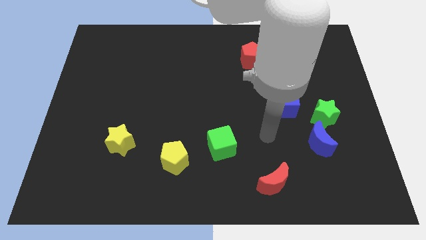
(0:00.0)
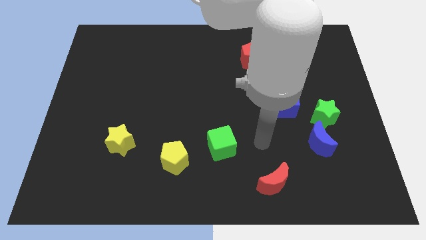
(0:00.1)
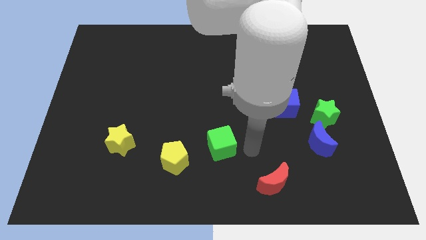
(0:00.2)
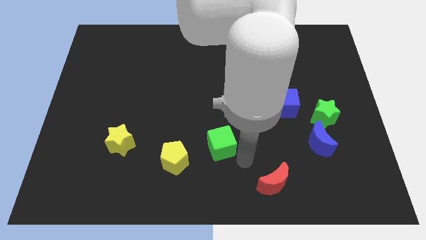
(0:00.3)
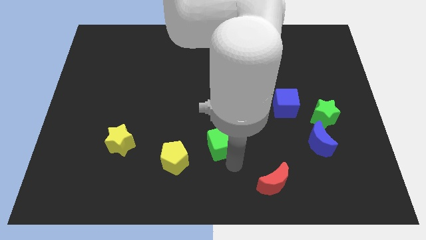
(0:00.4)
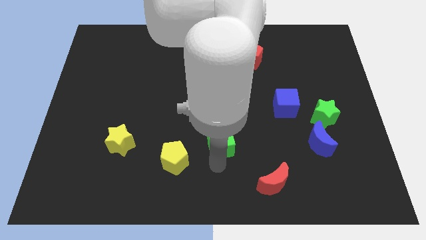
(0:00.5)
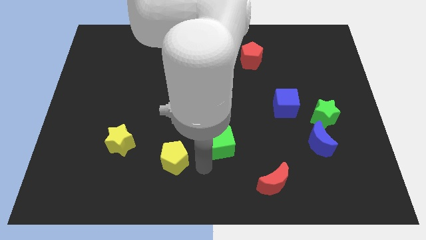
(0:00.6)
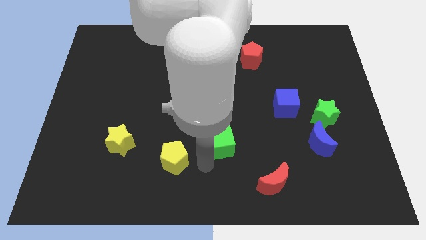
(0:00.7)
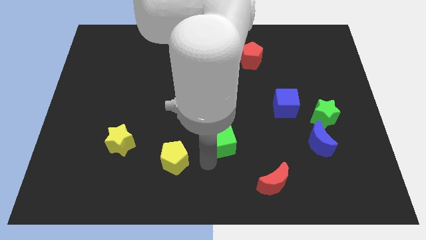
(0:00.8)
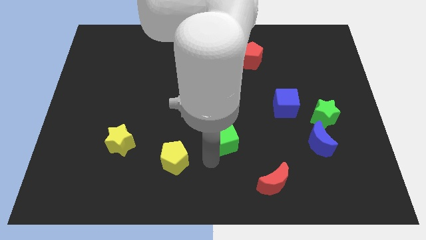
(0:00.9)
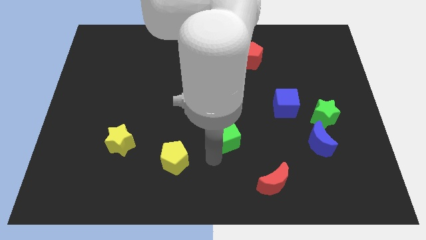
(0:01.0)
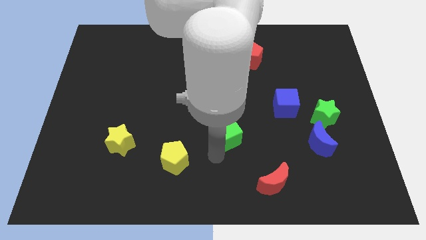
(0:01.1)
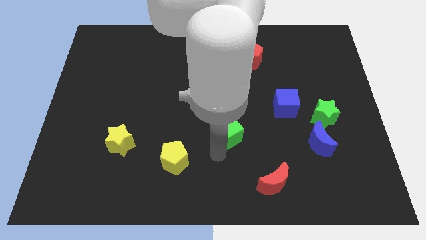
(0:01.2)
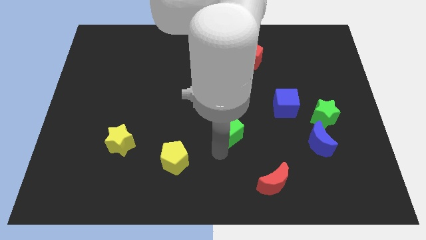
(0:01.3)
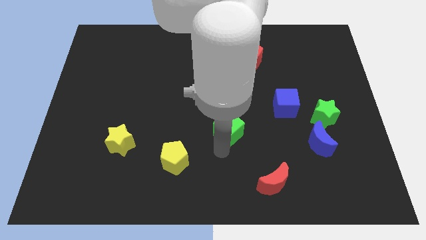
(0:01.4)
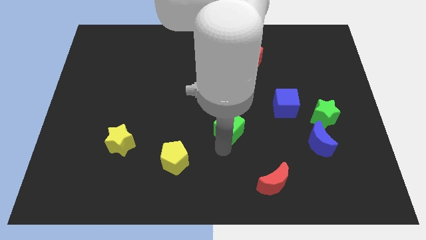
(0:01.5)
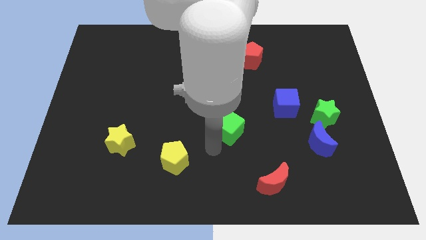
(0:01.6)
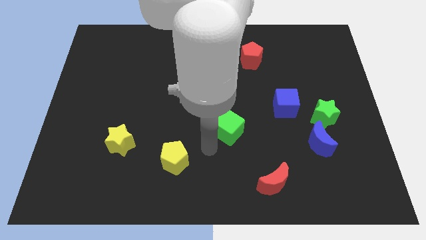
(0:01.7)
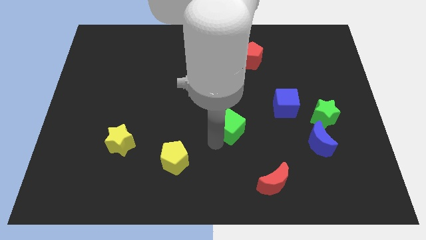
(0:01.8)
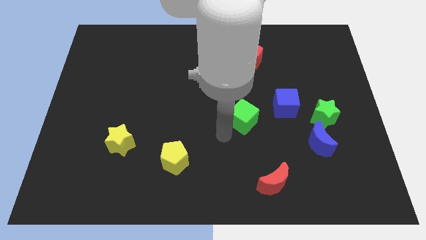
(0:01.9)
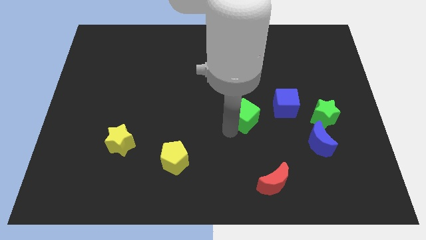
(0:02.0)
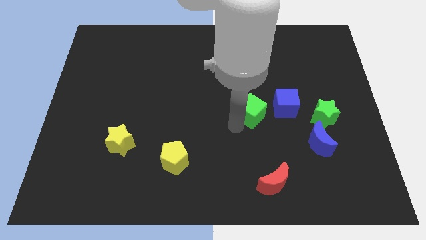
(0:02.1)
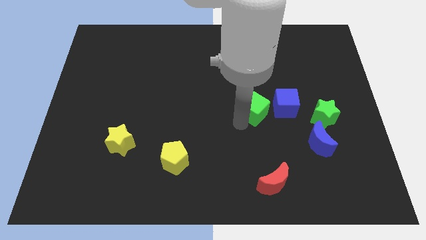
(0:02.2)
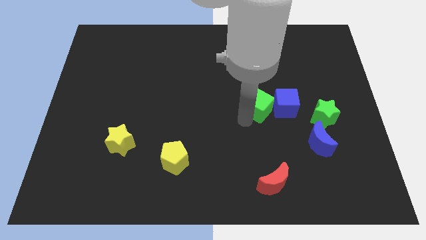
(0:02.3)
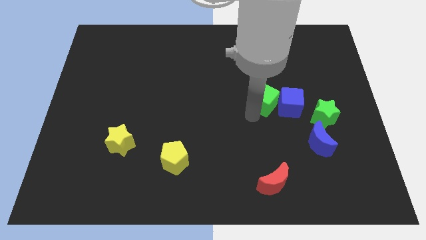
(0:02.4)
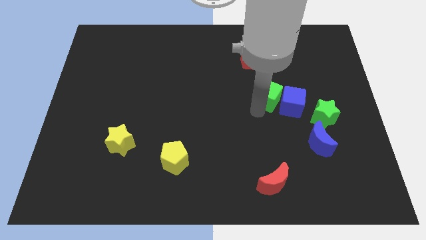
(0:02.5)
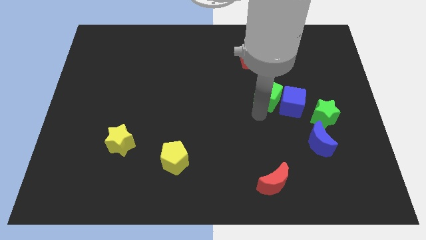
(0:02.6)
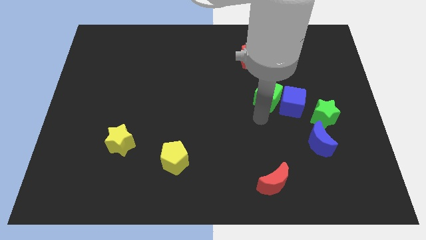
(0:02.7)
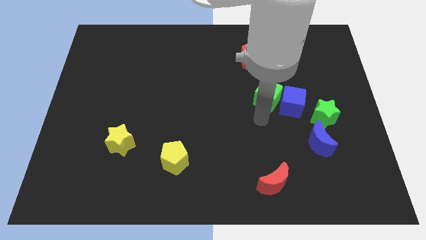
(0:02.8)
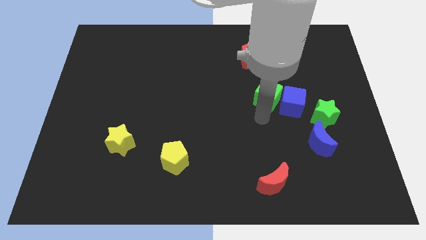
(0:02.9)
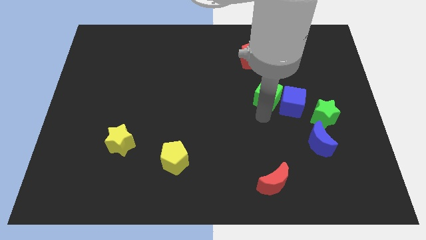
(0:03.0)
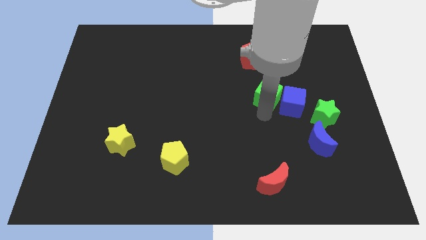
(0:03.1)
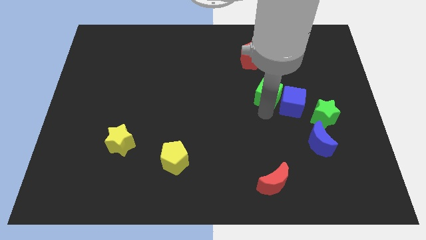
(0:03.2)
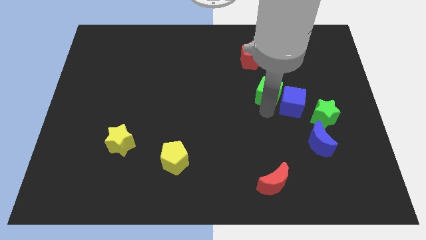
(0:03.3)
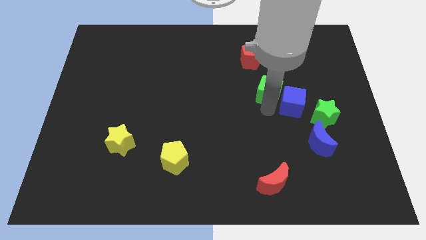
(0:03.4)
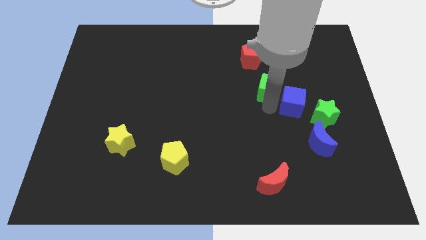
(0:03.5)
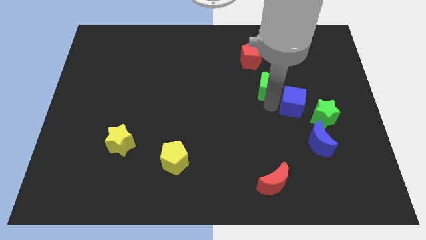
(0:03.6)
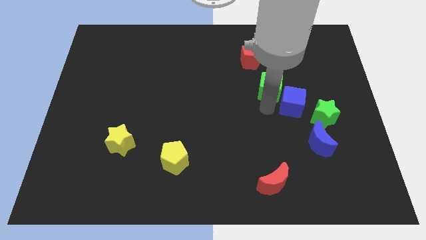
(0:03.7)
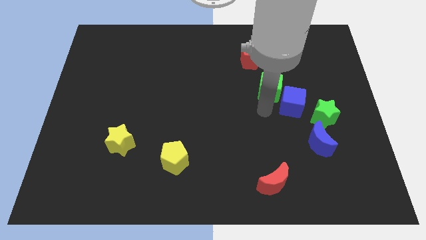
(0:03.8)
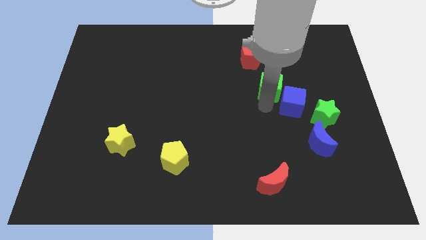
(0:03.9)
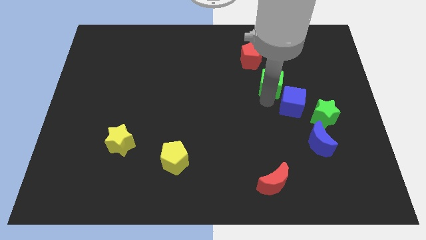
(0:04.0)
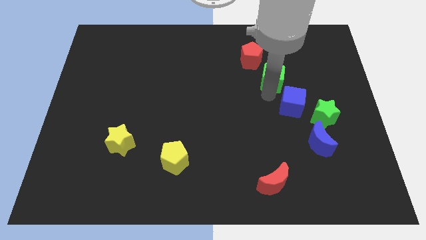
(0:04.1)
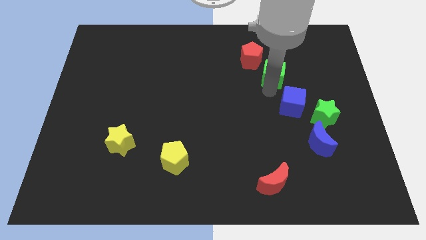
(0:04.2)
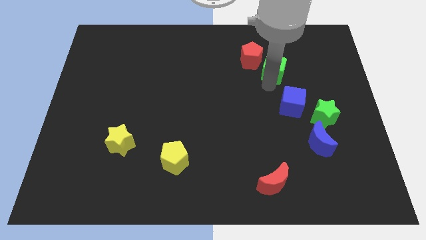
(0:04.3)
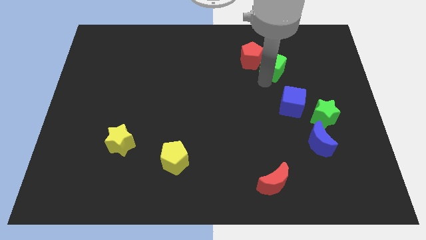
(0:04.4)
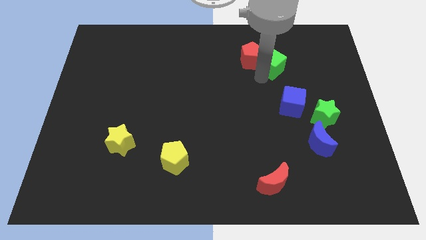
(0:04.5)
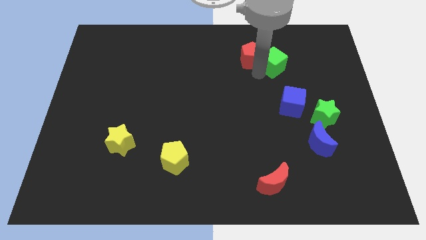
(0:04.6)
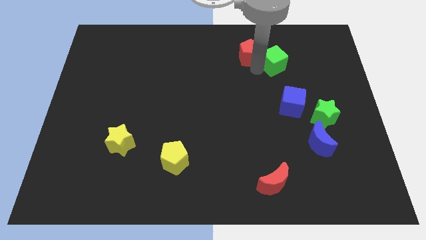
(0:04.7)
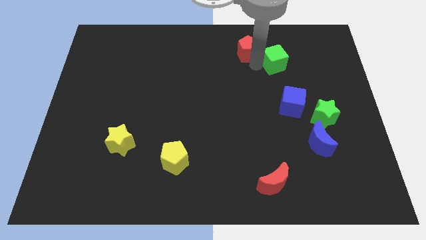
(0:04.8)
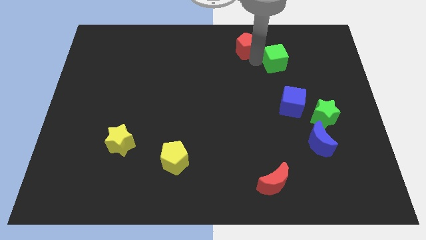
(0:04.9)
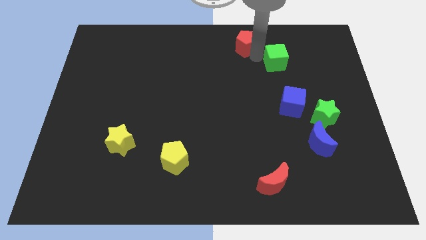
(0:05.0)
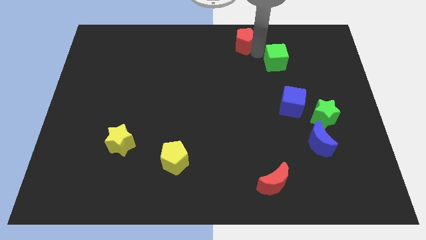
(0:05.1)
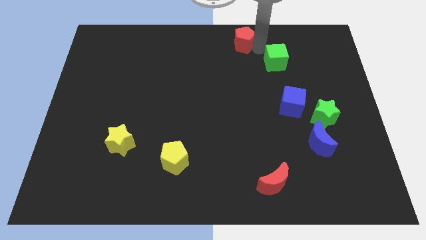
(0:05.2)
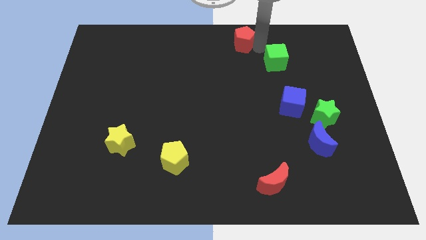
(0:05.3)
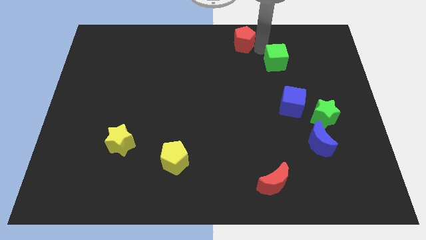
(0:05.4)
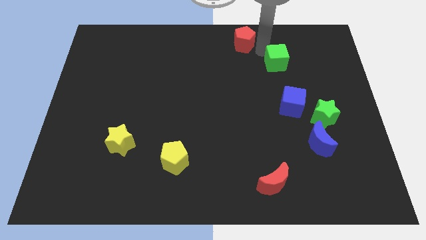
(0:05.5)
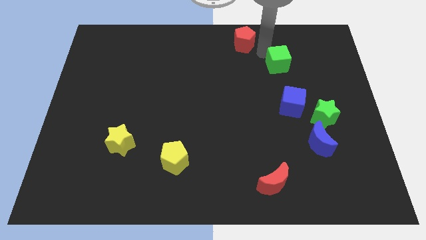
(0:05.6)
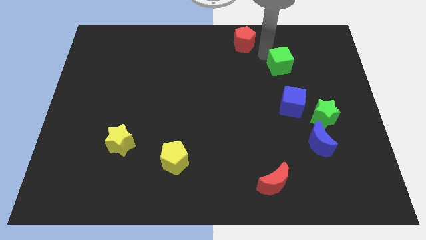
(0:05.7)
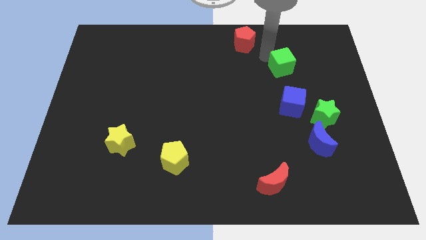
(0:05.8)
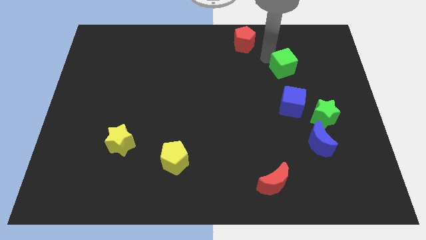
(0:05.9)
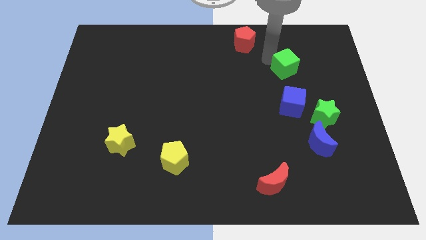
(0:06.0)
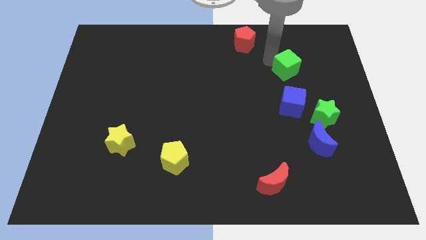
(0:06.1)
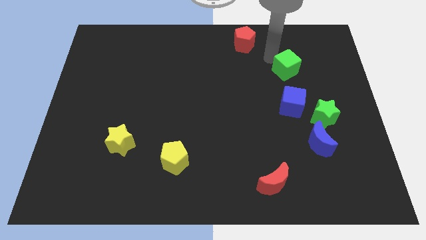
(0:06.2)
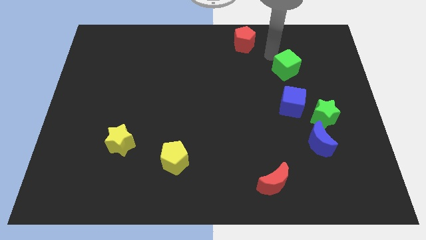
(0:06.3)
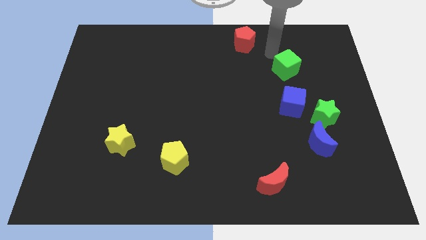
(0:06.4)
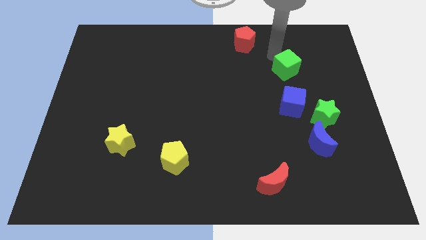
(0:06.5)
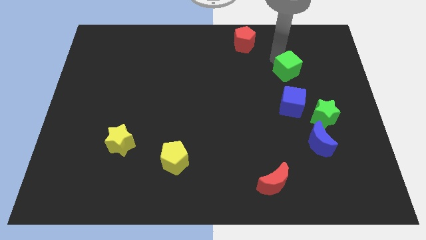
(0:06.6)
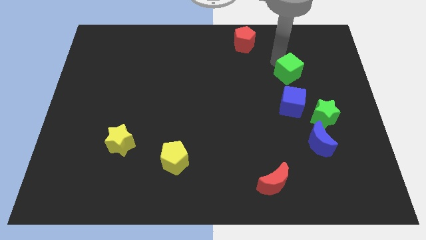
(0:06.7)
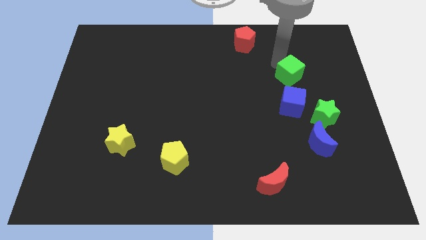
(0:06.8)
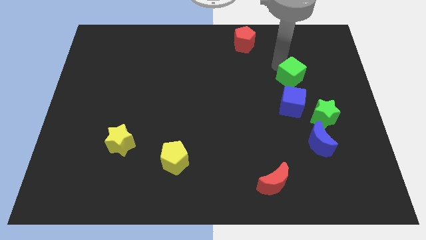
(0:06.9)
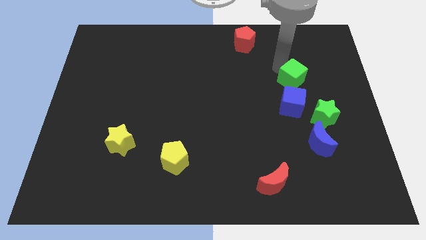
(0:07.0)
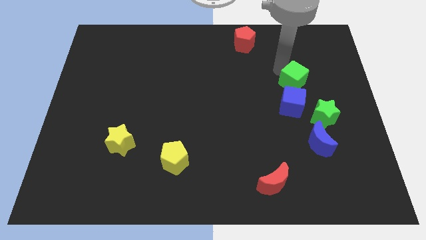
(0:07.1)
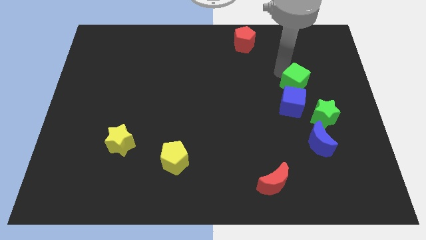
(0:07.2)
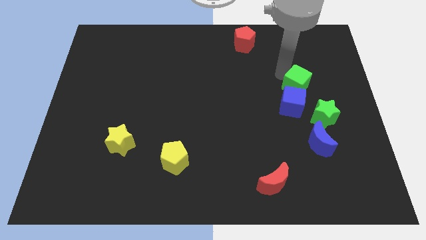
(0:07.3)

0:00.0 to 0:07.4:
slide the green cube to the top side of the green star
